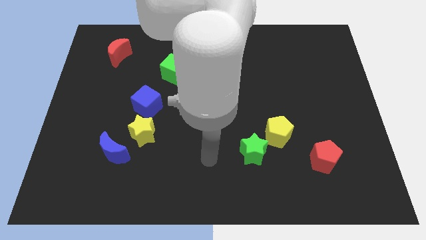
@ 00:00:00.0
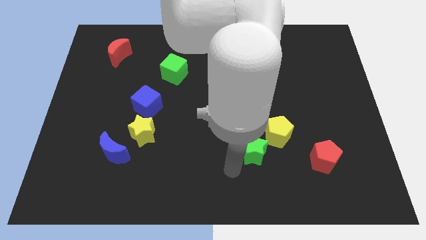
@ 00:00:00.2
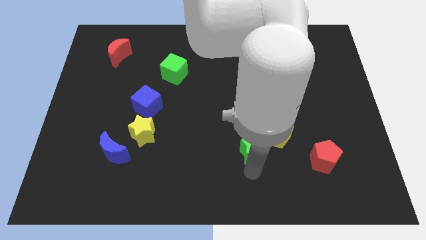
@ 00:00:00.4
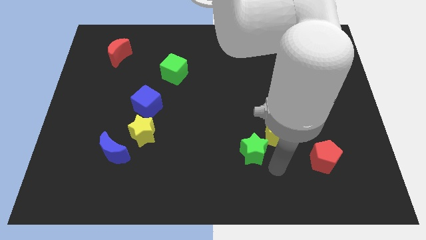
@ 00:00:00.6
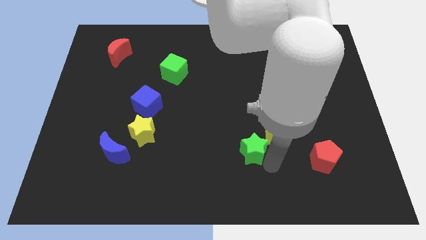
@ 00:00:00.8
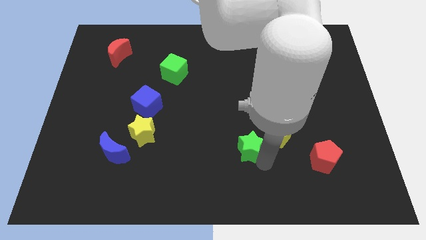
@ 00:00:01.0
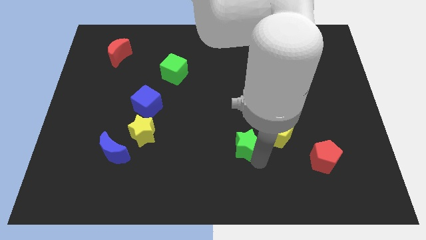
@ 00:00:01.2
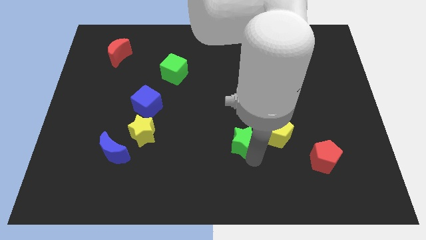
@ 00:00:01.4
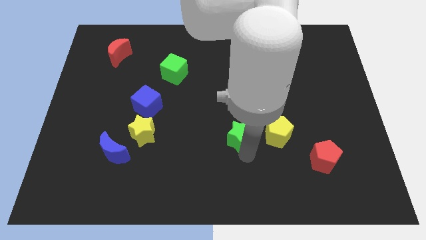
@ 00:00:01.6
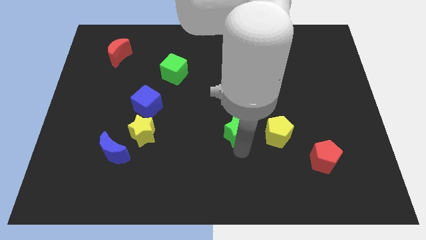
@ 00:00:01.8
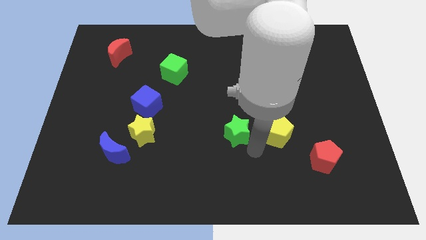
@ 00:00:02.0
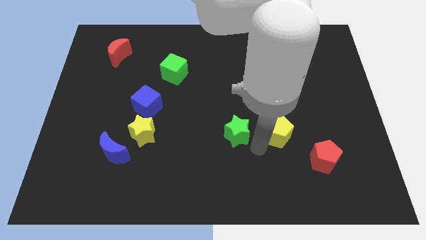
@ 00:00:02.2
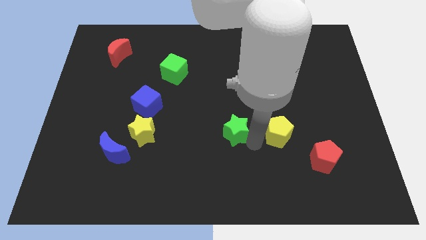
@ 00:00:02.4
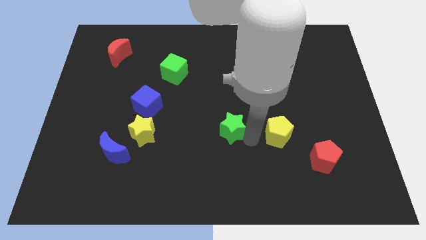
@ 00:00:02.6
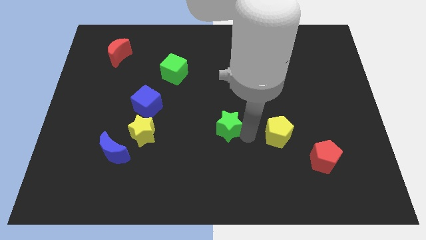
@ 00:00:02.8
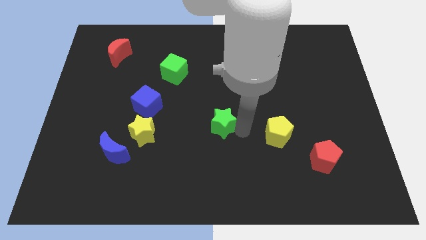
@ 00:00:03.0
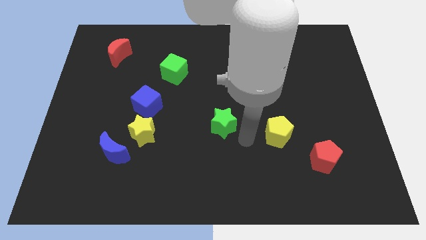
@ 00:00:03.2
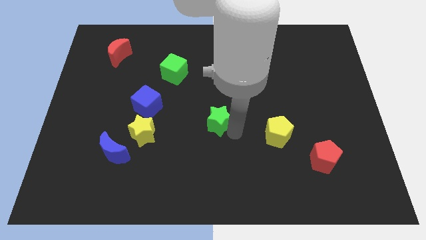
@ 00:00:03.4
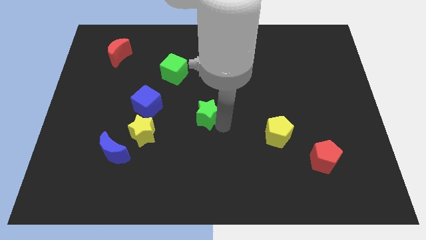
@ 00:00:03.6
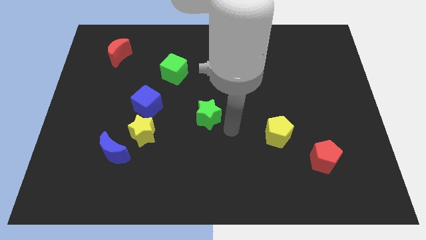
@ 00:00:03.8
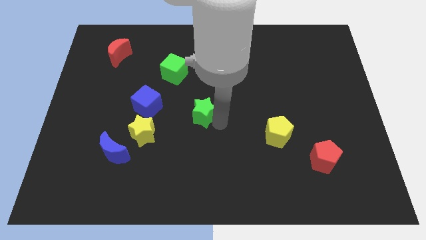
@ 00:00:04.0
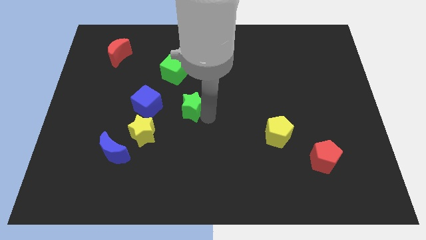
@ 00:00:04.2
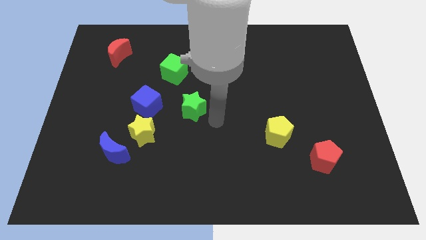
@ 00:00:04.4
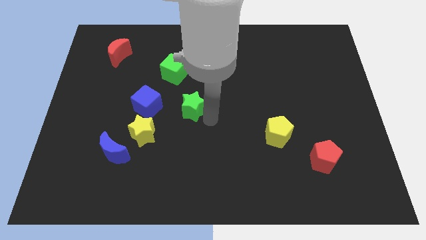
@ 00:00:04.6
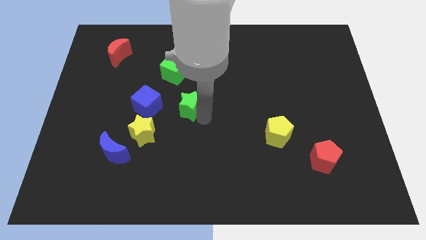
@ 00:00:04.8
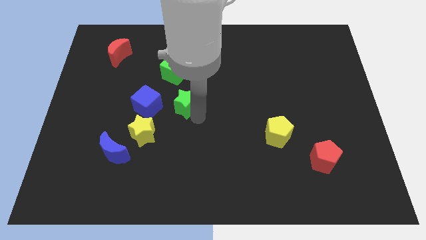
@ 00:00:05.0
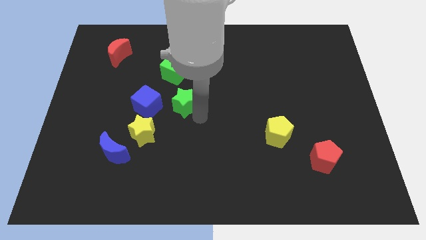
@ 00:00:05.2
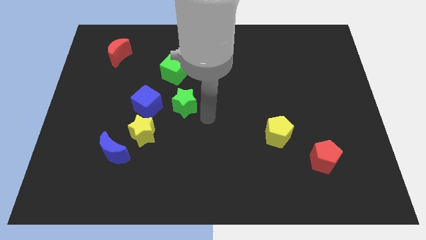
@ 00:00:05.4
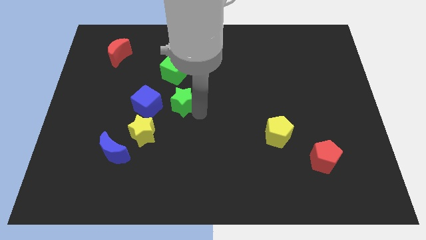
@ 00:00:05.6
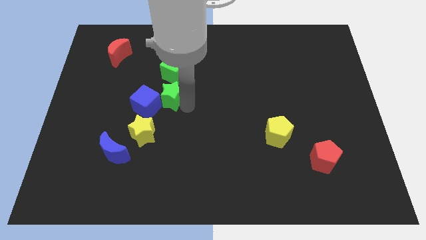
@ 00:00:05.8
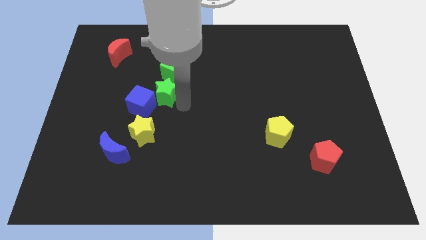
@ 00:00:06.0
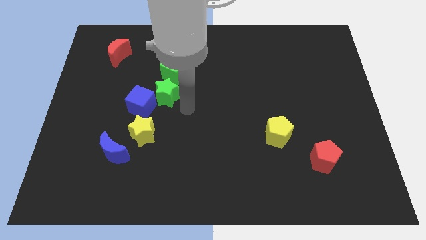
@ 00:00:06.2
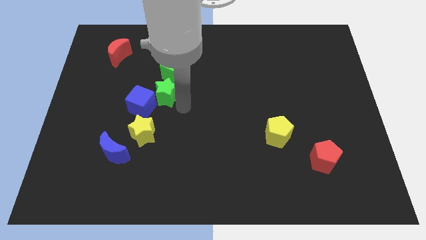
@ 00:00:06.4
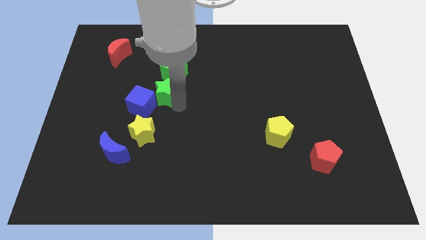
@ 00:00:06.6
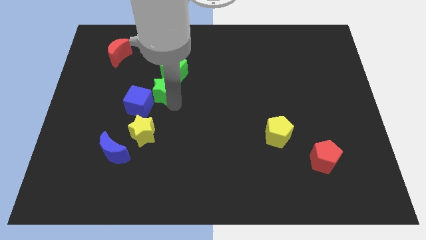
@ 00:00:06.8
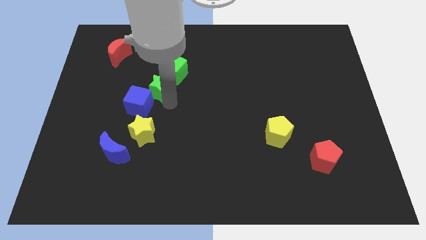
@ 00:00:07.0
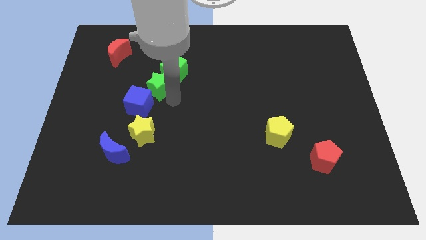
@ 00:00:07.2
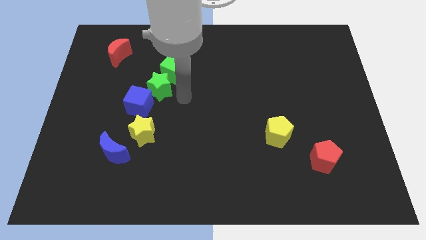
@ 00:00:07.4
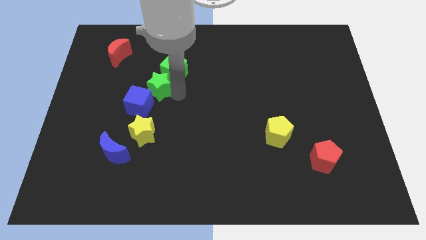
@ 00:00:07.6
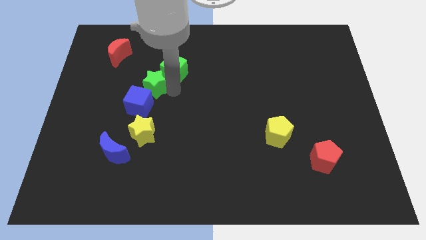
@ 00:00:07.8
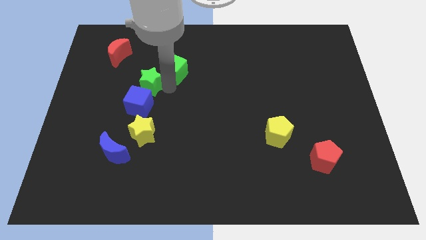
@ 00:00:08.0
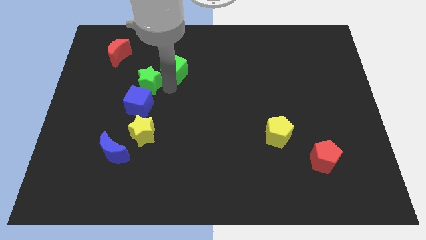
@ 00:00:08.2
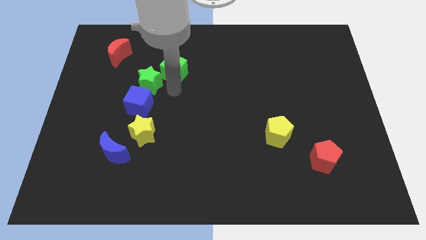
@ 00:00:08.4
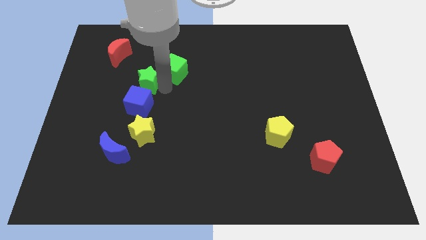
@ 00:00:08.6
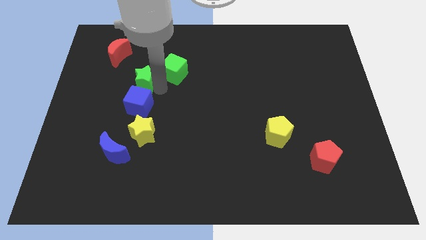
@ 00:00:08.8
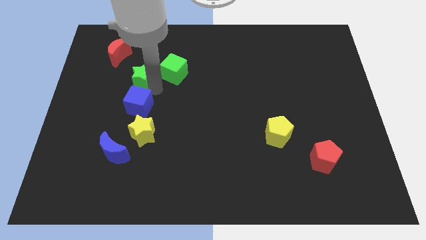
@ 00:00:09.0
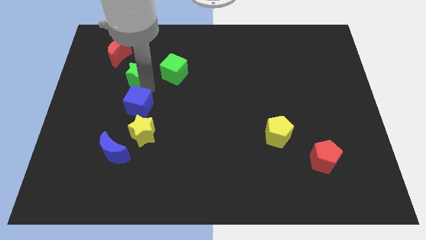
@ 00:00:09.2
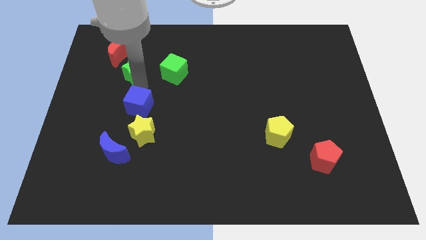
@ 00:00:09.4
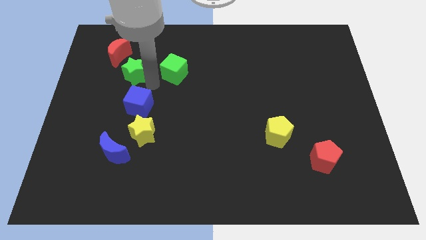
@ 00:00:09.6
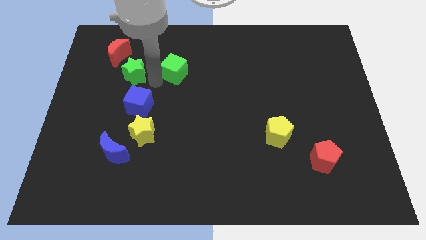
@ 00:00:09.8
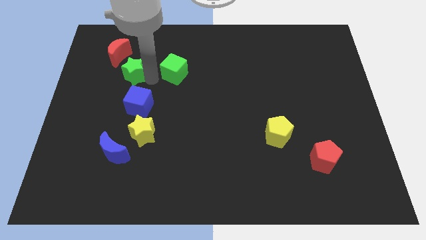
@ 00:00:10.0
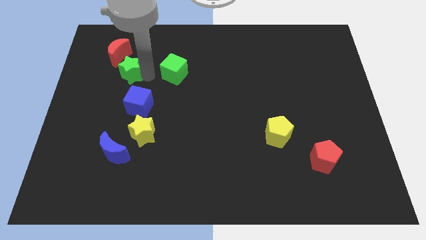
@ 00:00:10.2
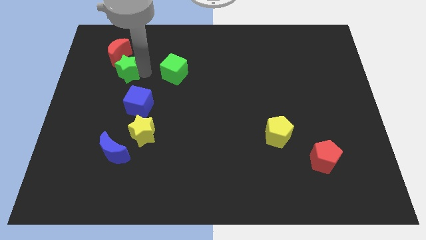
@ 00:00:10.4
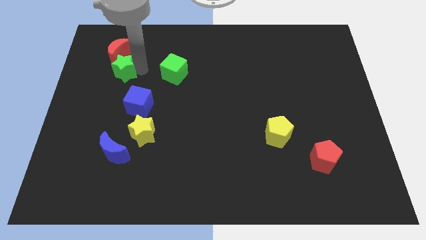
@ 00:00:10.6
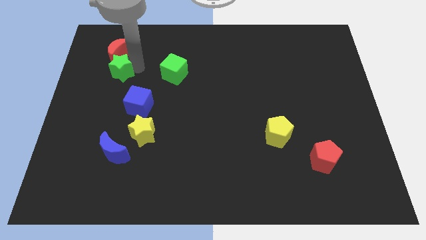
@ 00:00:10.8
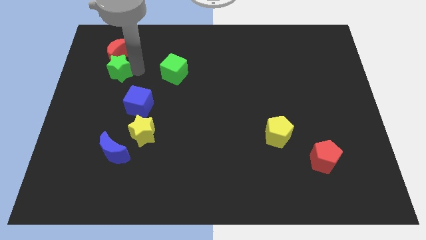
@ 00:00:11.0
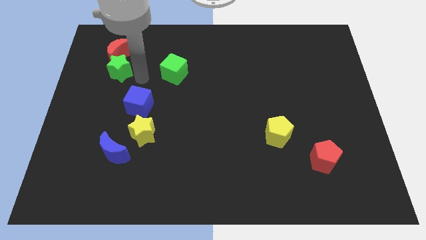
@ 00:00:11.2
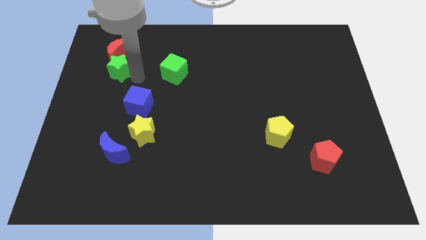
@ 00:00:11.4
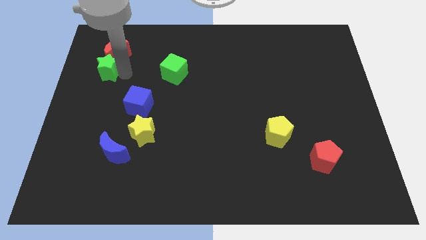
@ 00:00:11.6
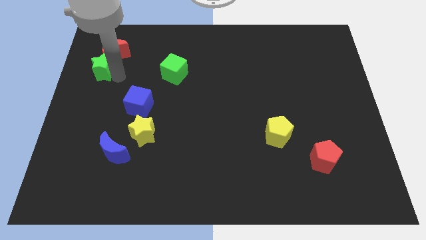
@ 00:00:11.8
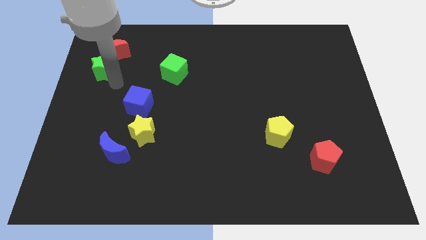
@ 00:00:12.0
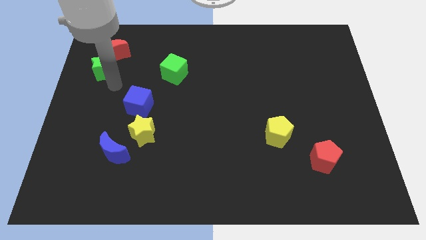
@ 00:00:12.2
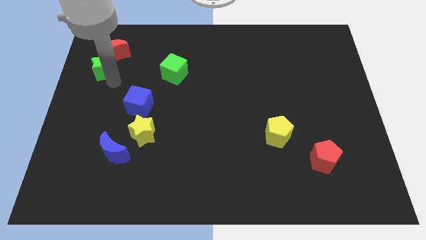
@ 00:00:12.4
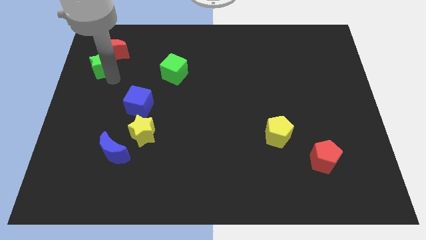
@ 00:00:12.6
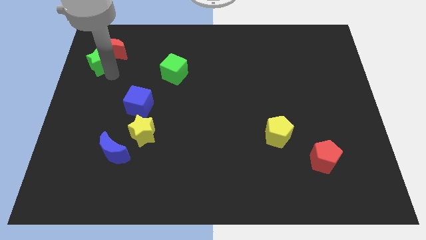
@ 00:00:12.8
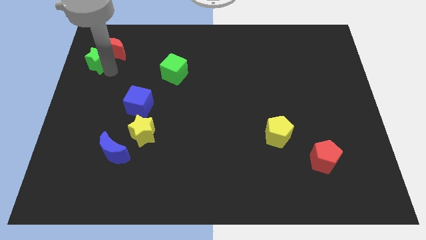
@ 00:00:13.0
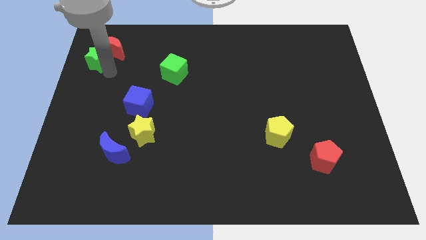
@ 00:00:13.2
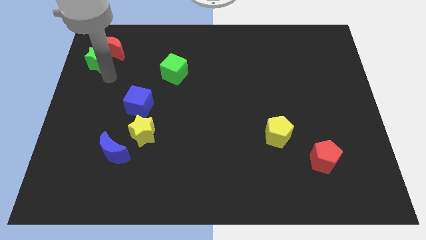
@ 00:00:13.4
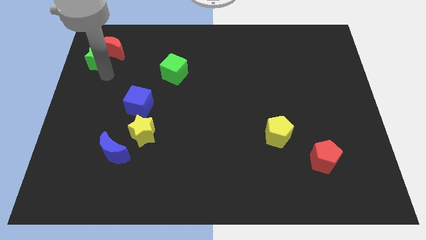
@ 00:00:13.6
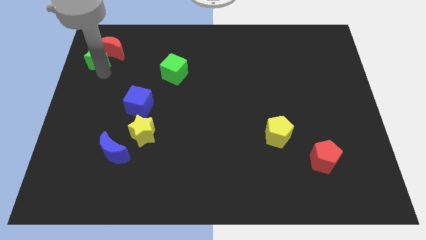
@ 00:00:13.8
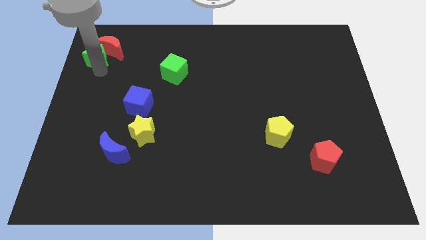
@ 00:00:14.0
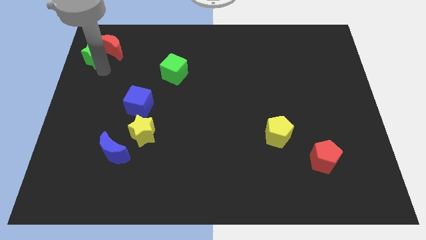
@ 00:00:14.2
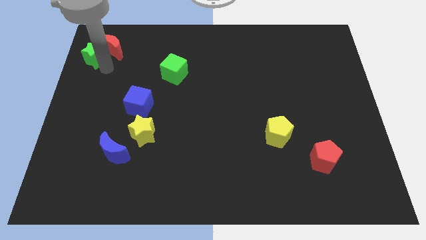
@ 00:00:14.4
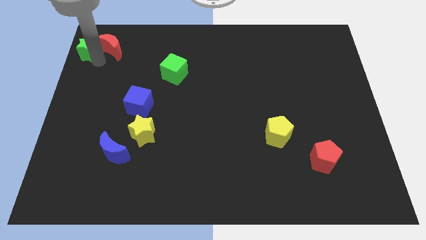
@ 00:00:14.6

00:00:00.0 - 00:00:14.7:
push the green star to the upper left corner
